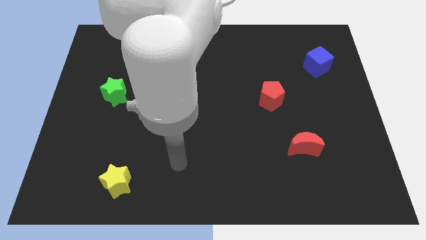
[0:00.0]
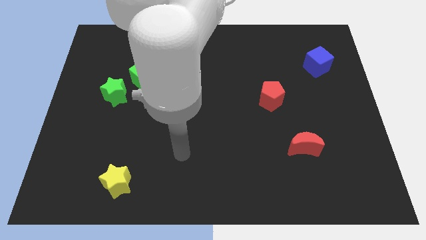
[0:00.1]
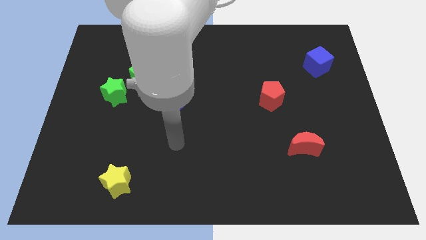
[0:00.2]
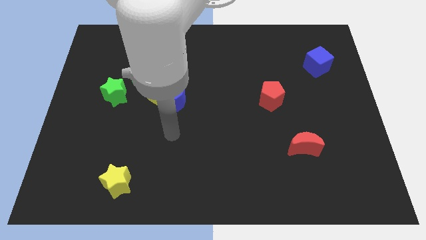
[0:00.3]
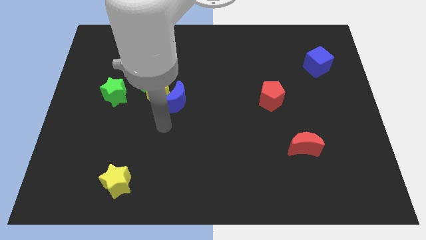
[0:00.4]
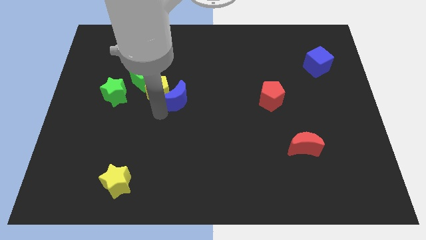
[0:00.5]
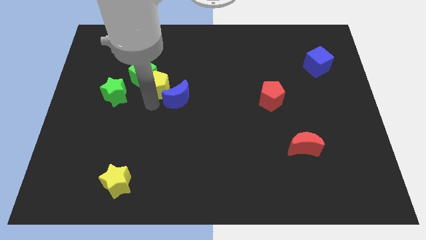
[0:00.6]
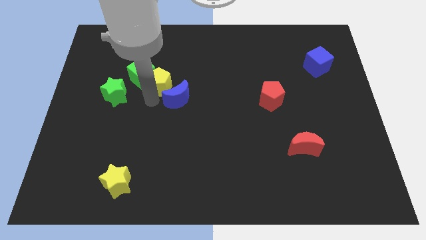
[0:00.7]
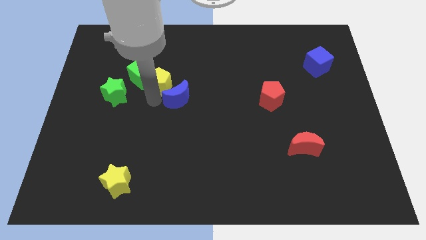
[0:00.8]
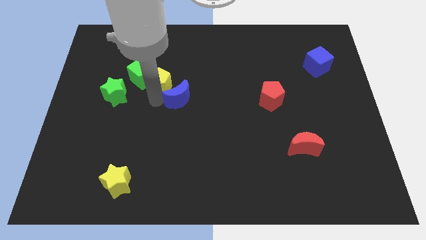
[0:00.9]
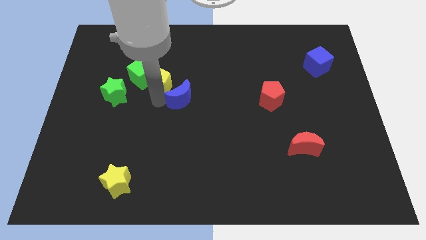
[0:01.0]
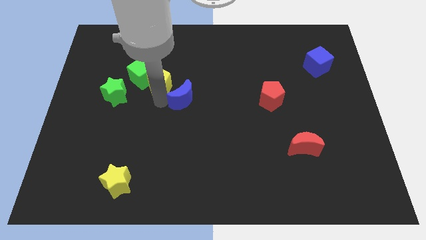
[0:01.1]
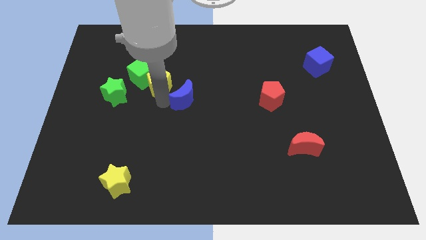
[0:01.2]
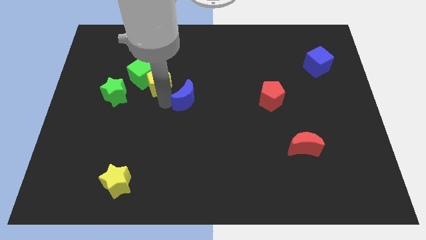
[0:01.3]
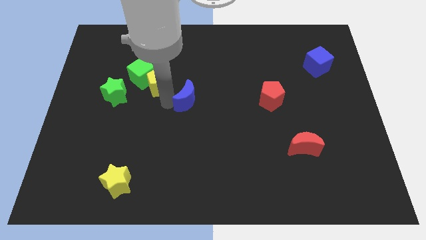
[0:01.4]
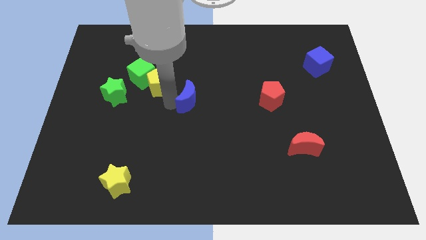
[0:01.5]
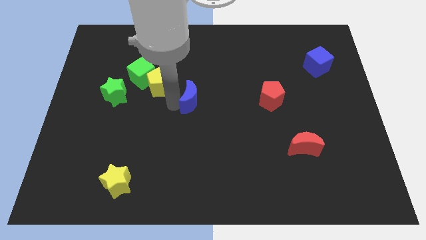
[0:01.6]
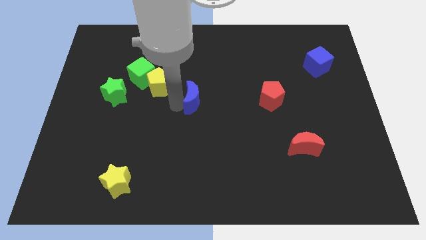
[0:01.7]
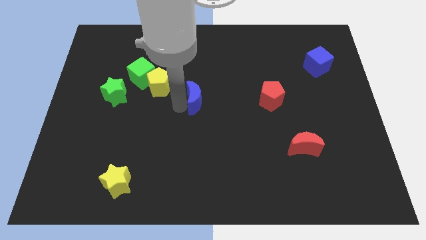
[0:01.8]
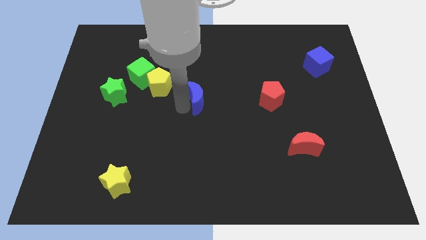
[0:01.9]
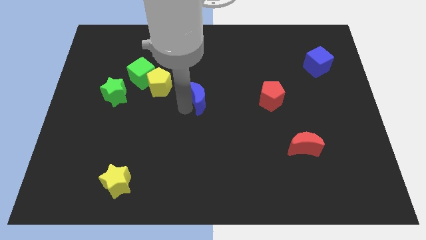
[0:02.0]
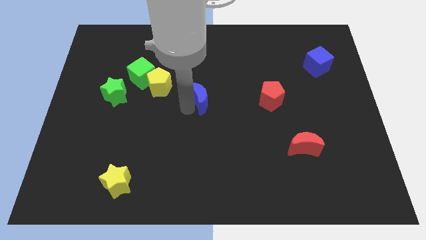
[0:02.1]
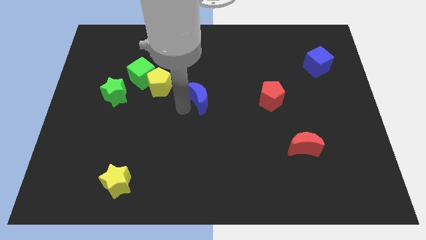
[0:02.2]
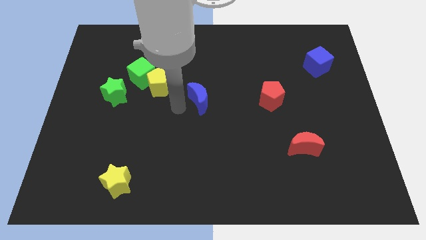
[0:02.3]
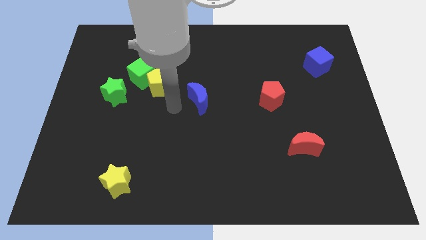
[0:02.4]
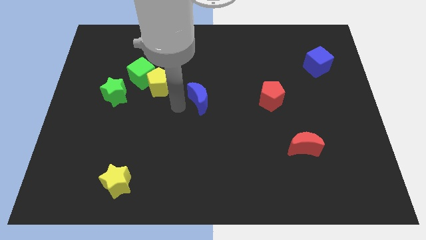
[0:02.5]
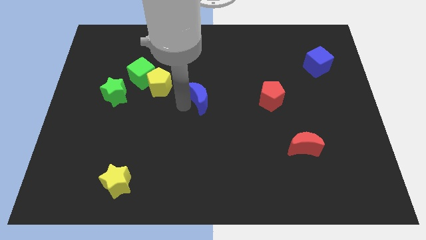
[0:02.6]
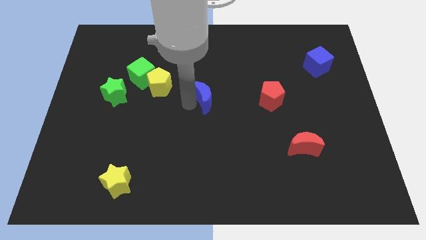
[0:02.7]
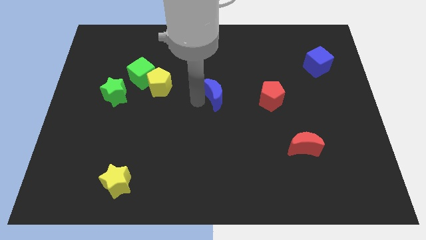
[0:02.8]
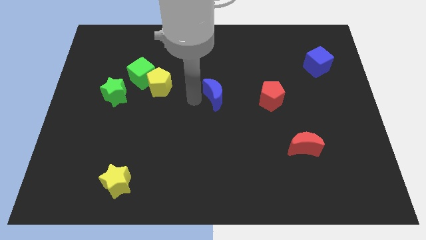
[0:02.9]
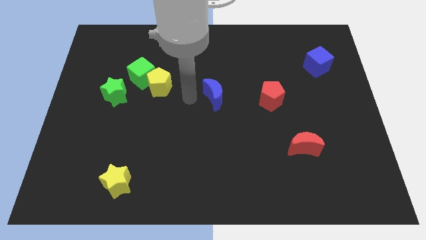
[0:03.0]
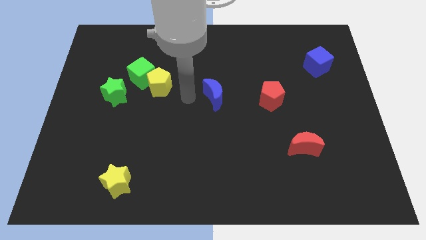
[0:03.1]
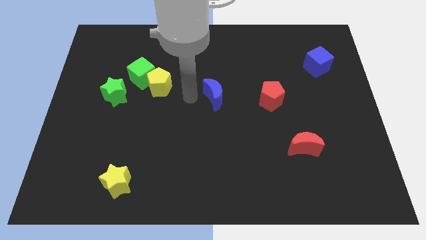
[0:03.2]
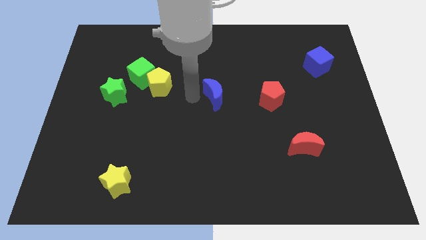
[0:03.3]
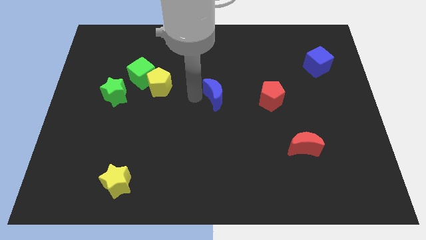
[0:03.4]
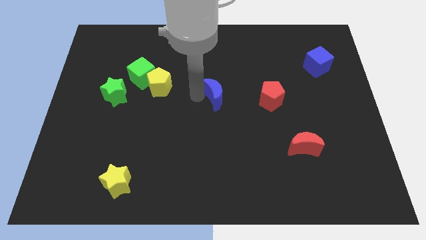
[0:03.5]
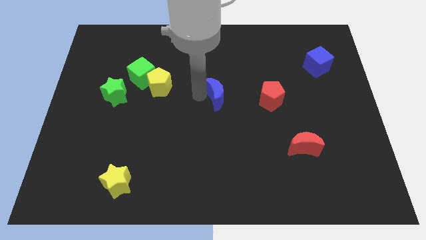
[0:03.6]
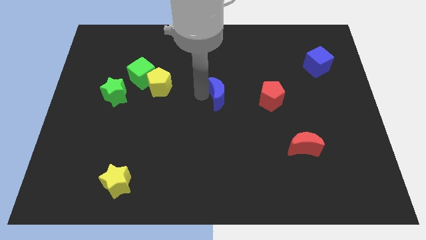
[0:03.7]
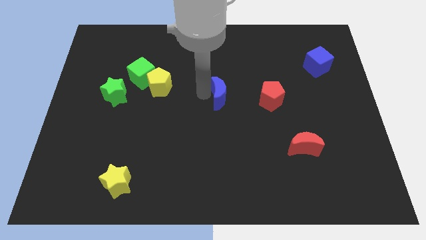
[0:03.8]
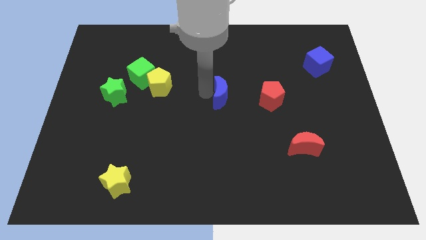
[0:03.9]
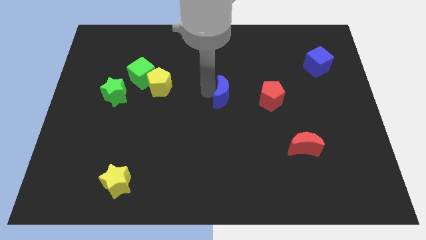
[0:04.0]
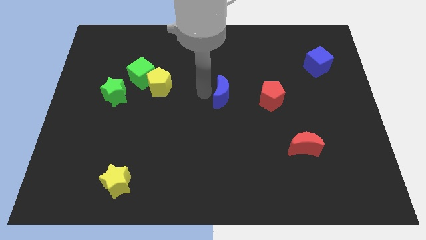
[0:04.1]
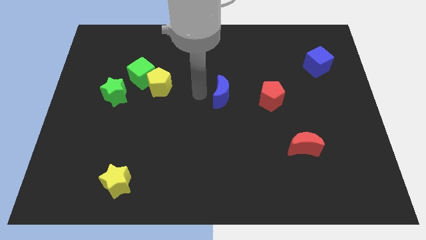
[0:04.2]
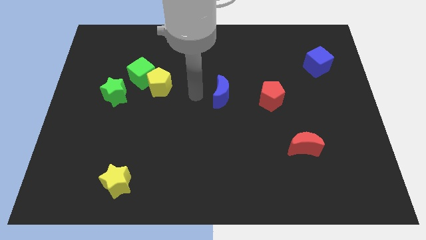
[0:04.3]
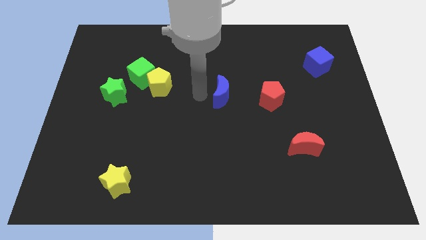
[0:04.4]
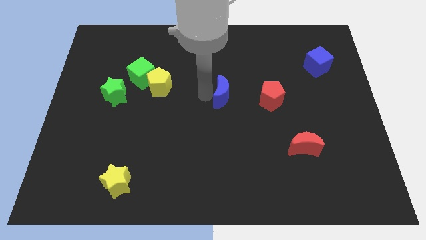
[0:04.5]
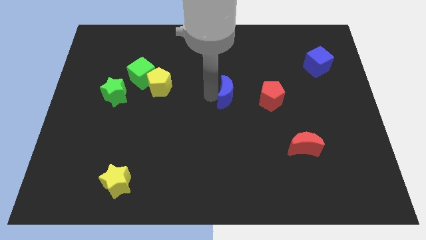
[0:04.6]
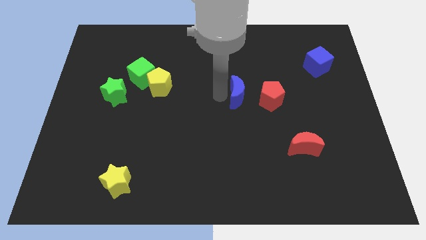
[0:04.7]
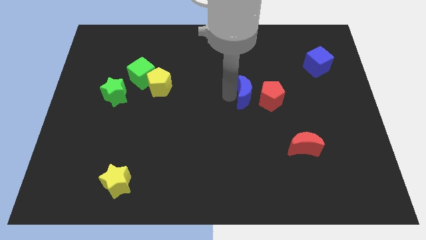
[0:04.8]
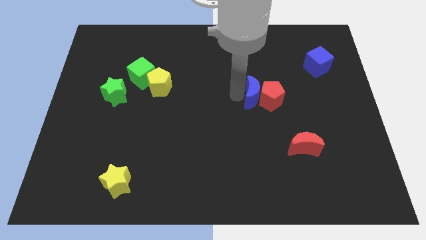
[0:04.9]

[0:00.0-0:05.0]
put the blue moon towards the red pentagon

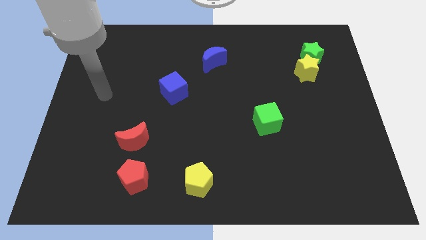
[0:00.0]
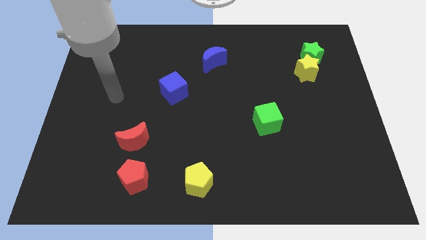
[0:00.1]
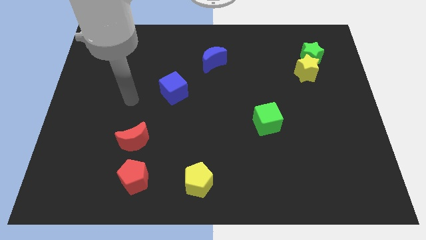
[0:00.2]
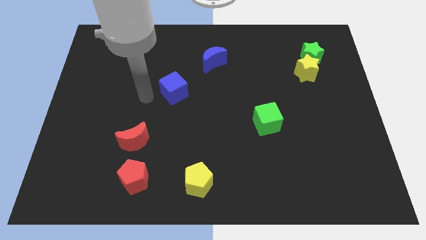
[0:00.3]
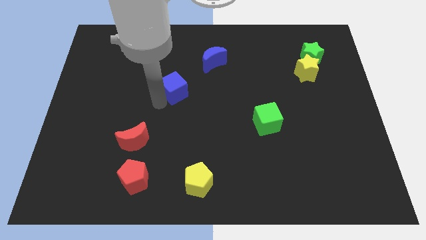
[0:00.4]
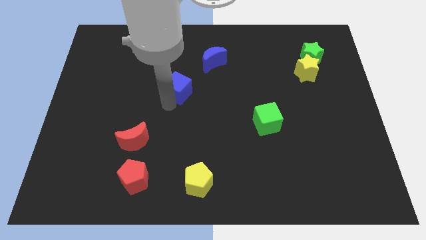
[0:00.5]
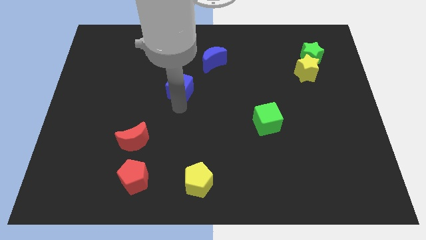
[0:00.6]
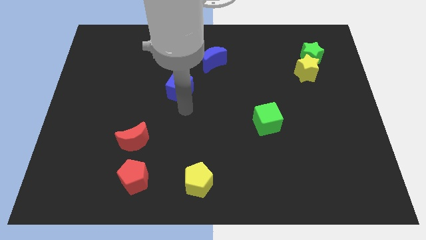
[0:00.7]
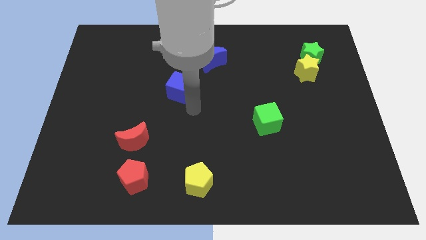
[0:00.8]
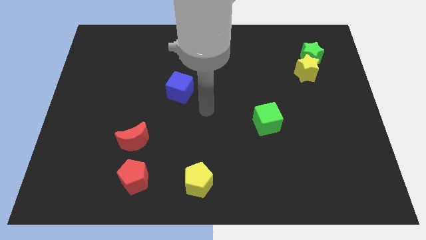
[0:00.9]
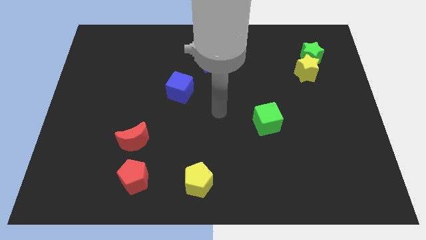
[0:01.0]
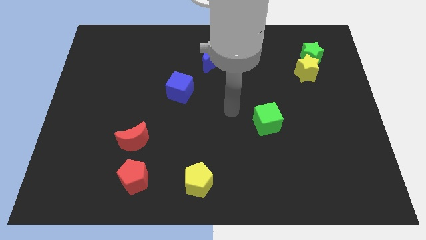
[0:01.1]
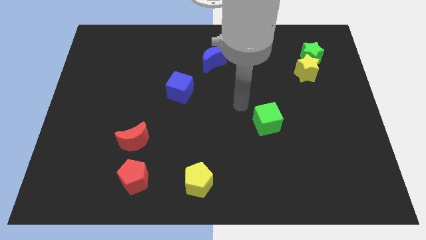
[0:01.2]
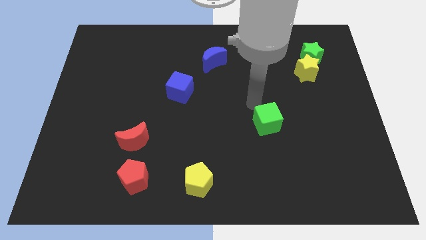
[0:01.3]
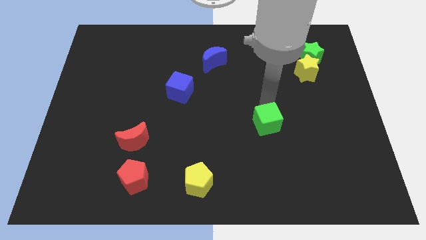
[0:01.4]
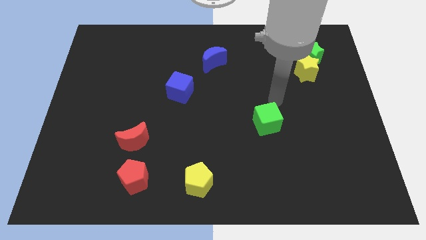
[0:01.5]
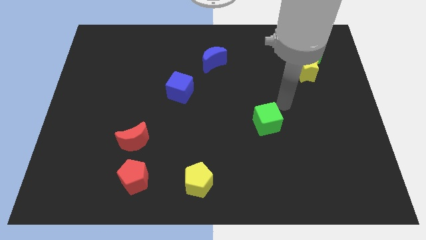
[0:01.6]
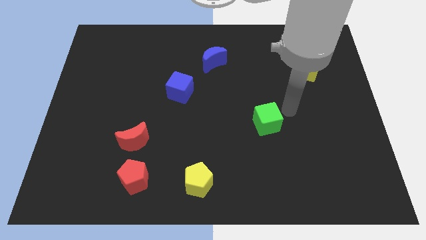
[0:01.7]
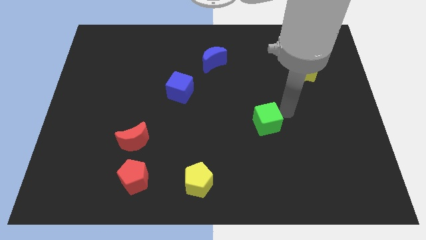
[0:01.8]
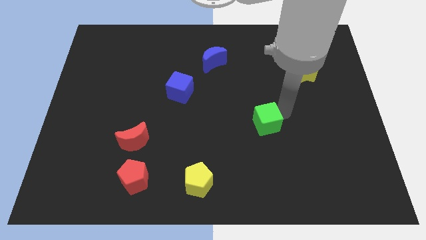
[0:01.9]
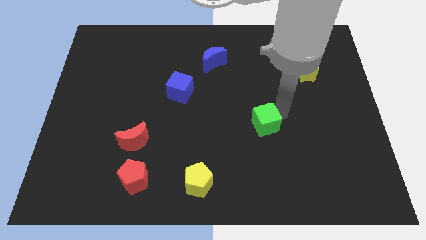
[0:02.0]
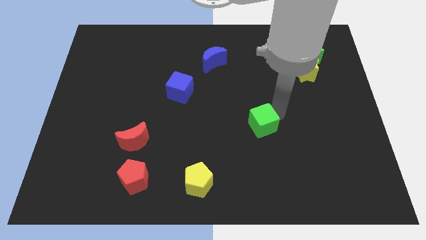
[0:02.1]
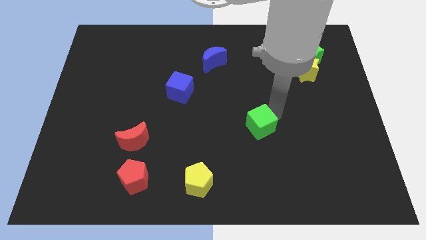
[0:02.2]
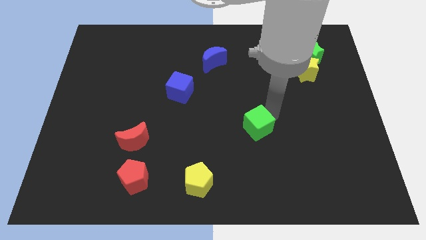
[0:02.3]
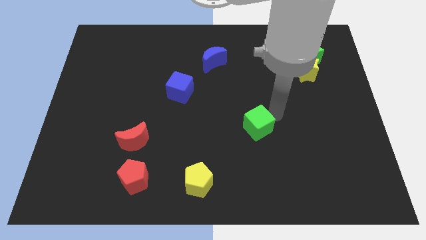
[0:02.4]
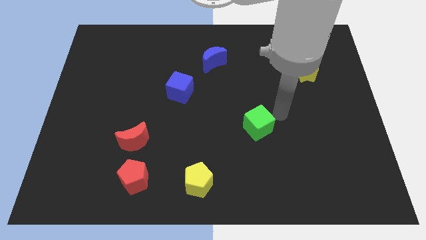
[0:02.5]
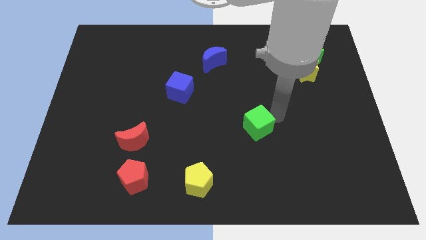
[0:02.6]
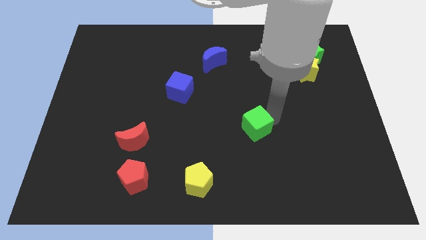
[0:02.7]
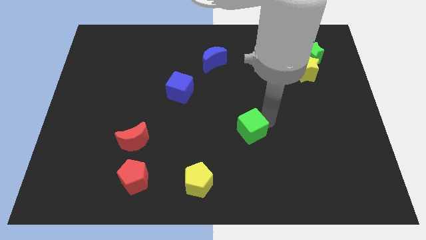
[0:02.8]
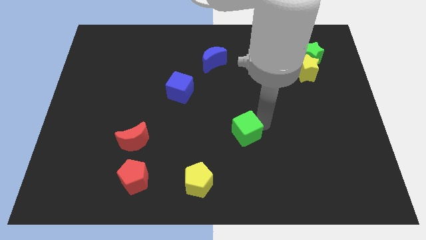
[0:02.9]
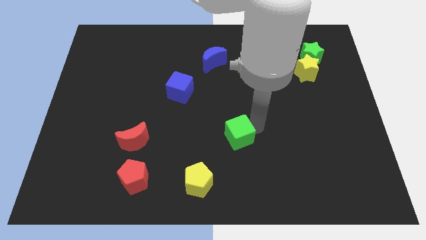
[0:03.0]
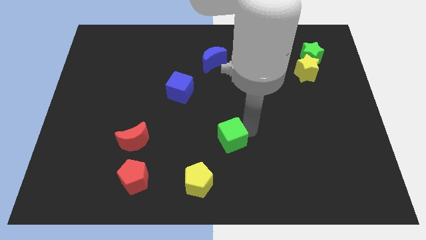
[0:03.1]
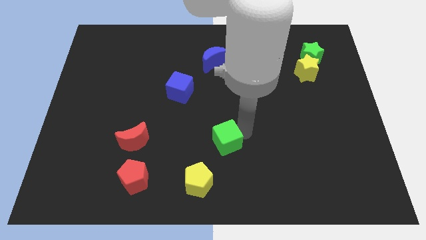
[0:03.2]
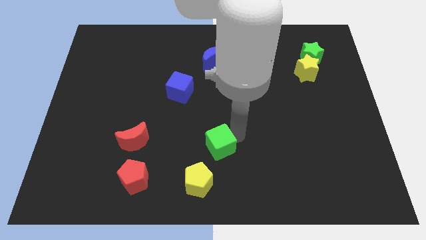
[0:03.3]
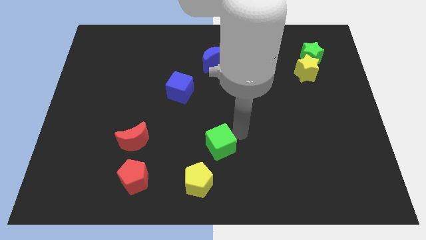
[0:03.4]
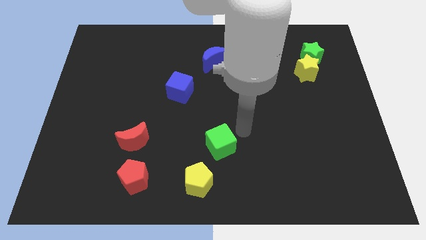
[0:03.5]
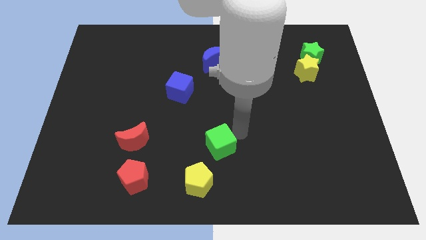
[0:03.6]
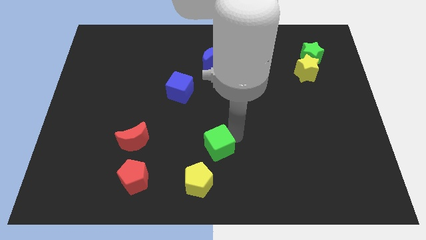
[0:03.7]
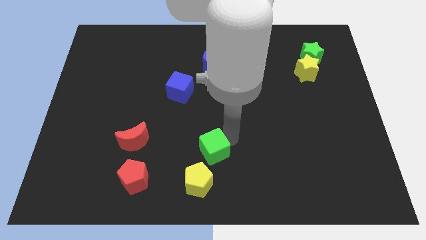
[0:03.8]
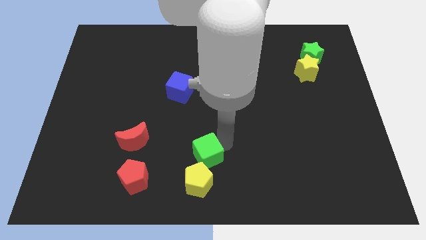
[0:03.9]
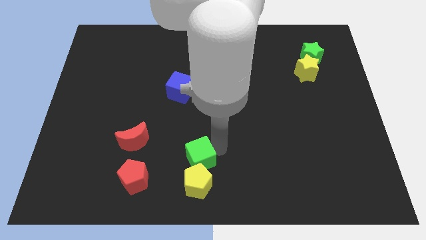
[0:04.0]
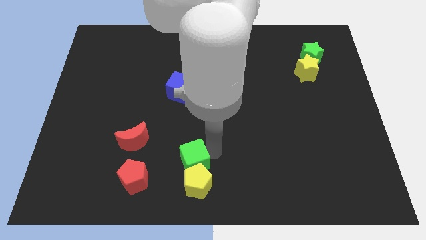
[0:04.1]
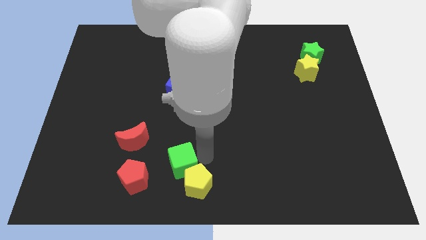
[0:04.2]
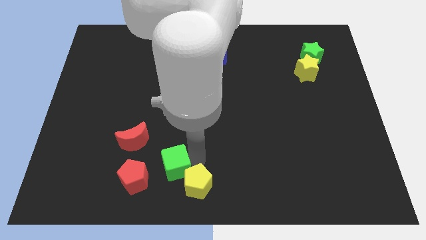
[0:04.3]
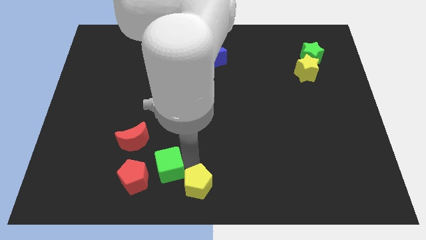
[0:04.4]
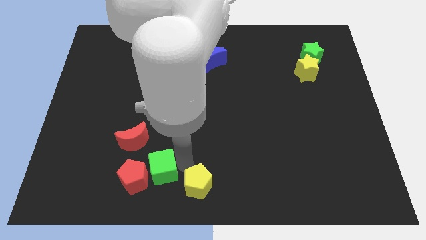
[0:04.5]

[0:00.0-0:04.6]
put the green cube to the red pentagon
